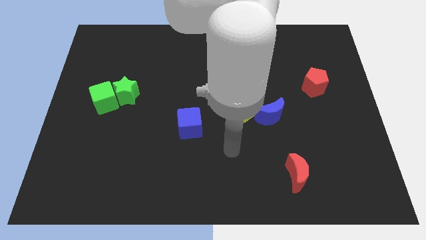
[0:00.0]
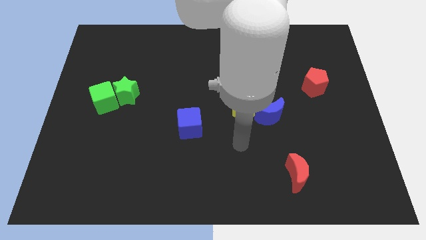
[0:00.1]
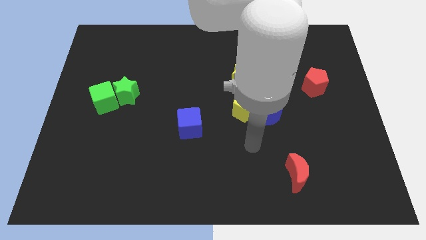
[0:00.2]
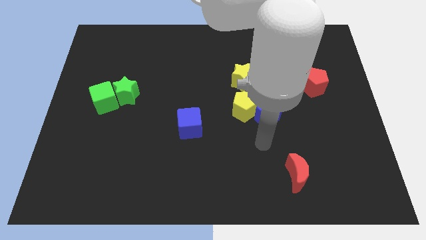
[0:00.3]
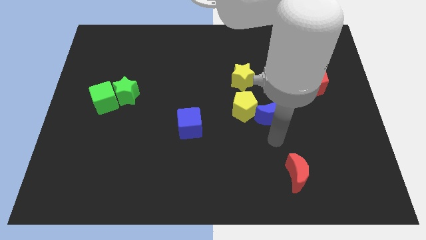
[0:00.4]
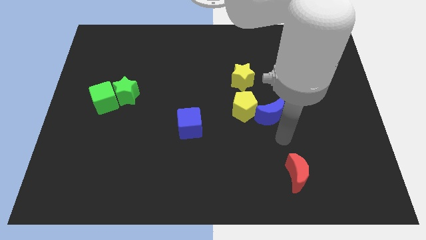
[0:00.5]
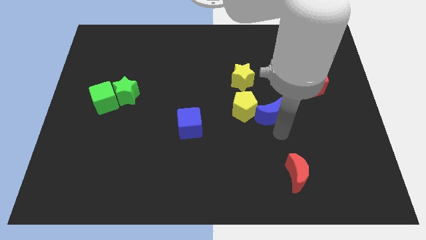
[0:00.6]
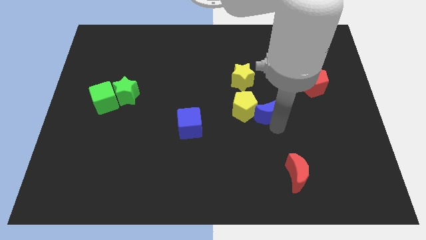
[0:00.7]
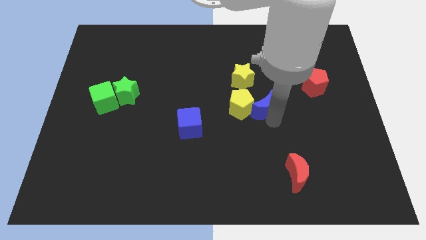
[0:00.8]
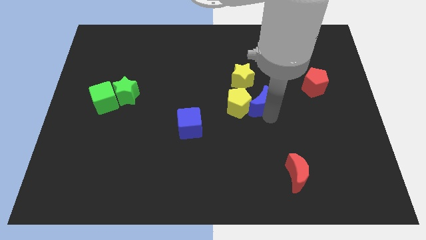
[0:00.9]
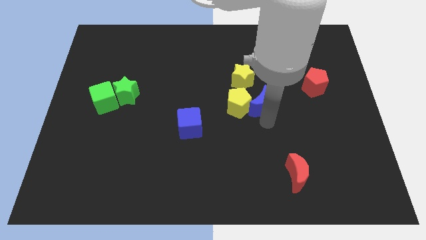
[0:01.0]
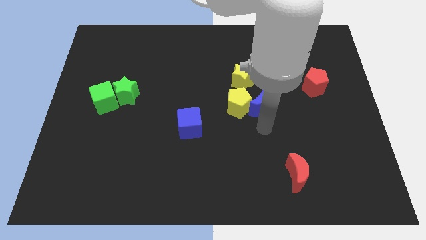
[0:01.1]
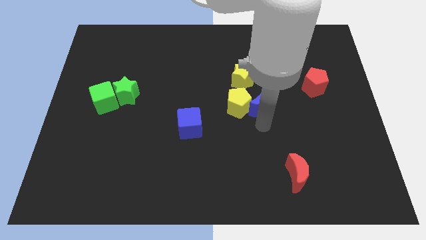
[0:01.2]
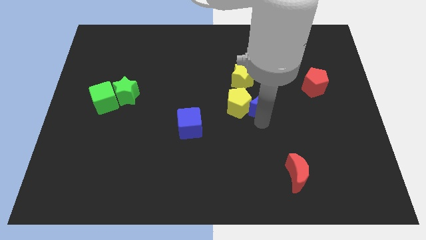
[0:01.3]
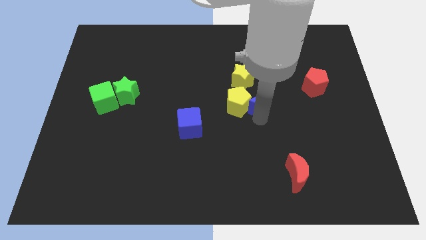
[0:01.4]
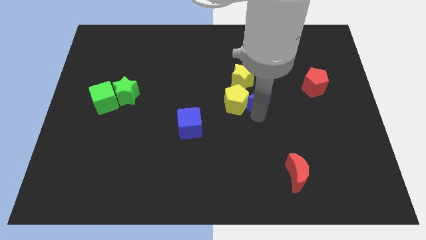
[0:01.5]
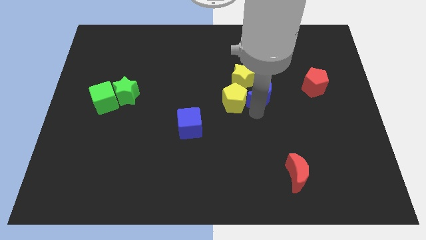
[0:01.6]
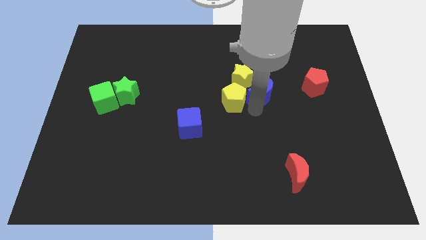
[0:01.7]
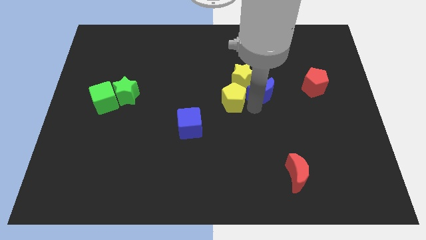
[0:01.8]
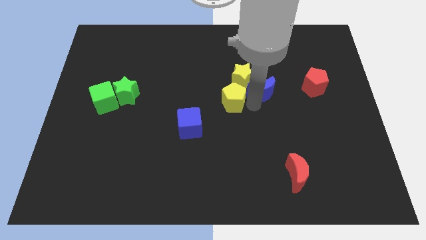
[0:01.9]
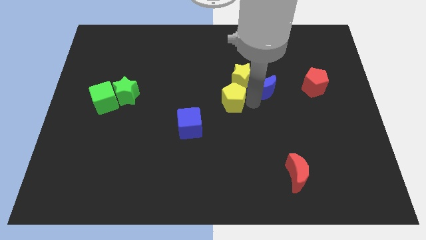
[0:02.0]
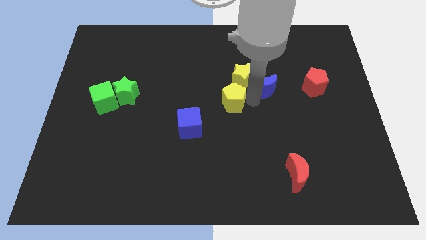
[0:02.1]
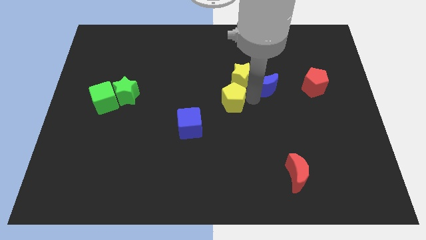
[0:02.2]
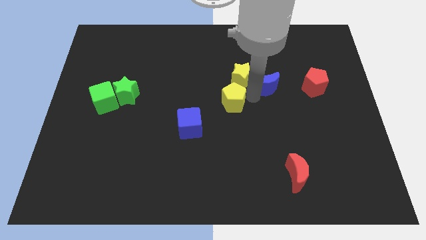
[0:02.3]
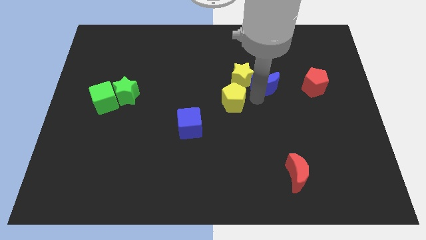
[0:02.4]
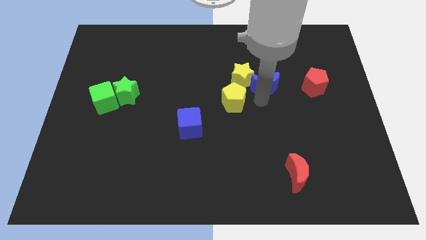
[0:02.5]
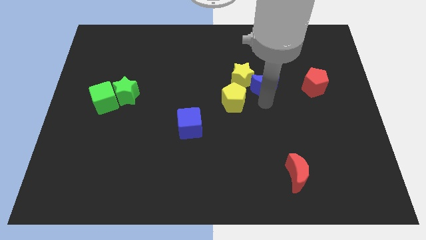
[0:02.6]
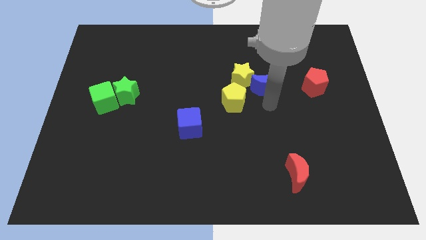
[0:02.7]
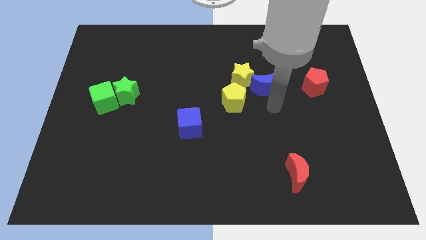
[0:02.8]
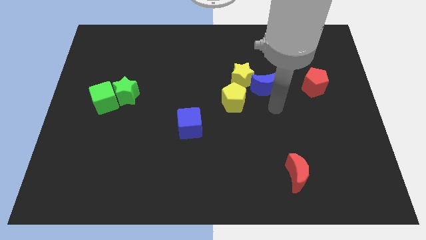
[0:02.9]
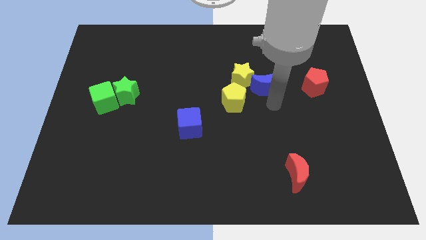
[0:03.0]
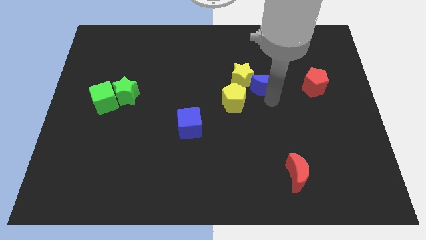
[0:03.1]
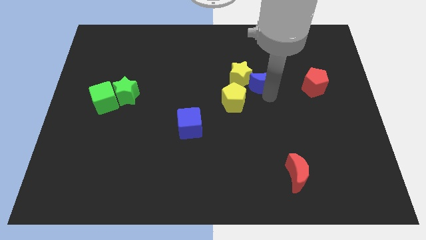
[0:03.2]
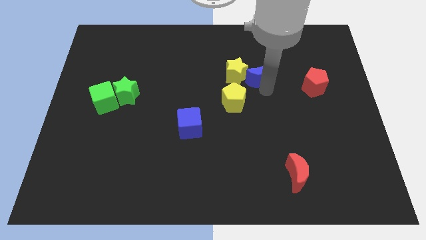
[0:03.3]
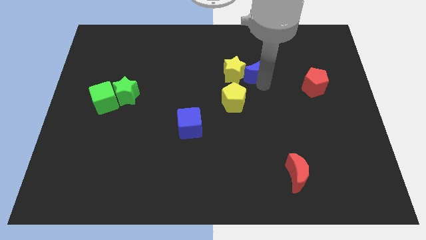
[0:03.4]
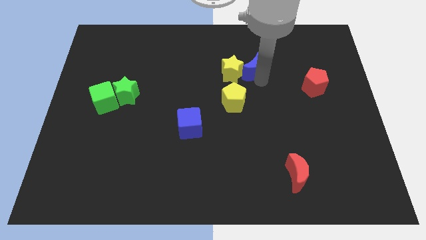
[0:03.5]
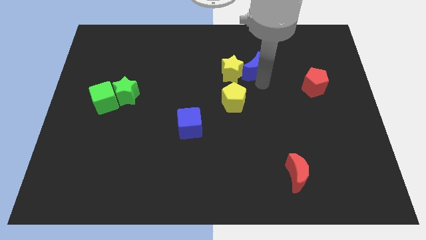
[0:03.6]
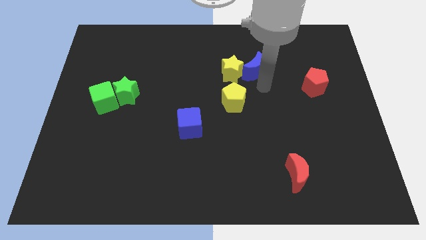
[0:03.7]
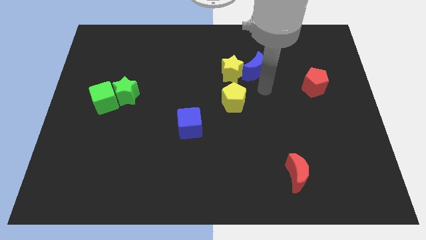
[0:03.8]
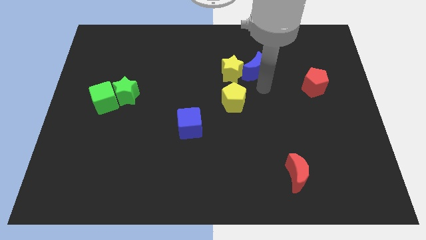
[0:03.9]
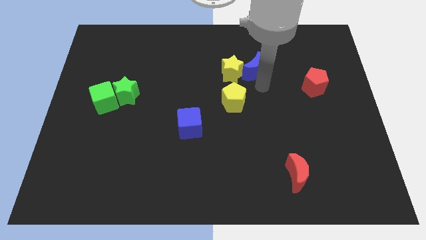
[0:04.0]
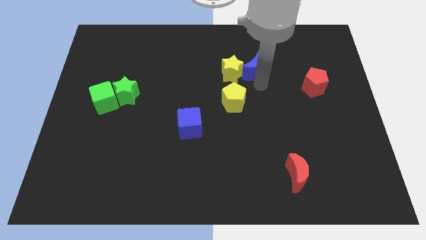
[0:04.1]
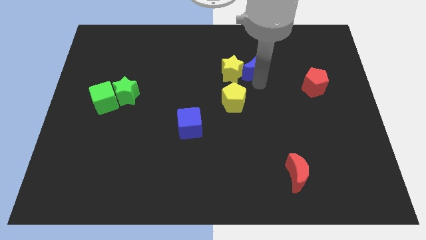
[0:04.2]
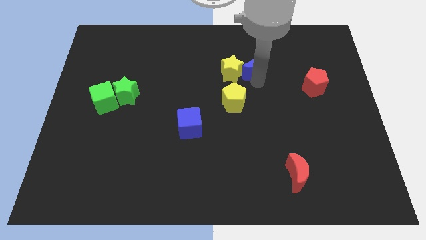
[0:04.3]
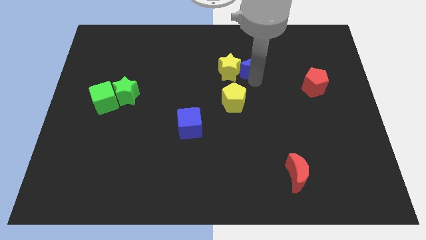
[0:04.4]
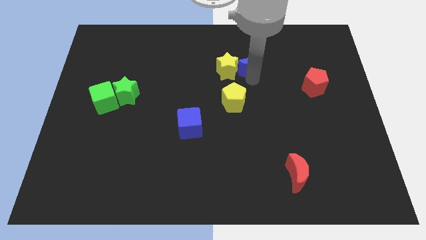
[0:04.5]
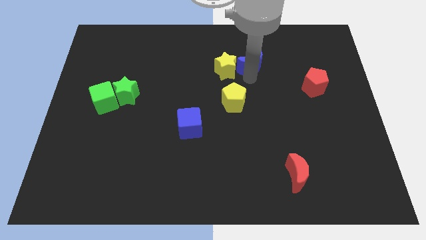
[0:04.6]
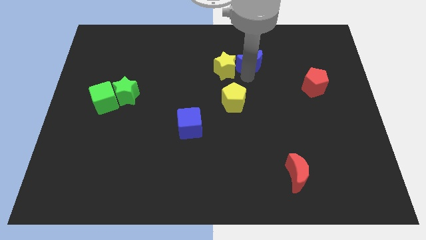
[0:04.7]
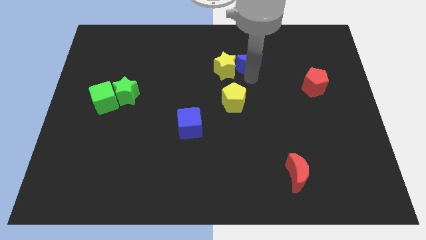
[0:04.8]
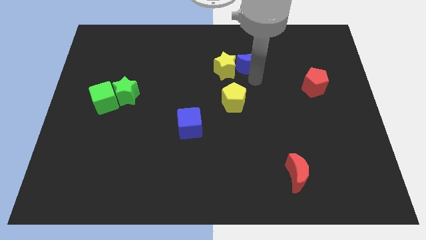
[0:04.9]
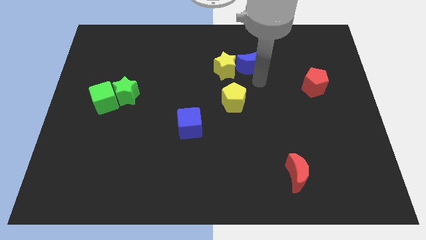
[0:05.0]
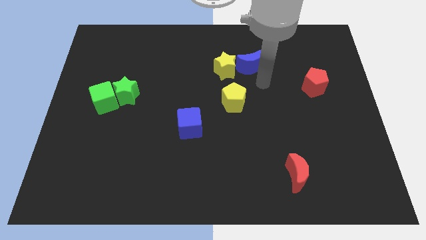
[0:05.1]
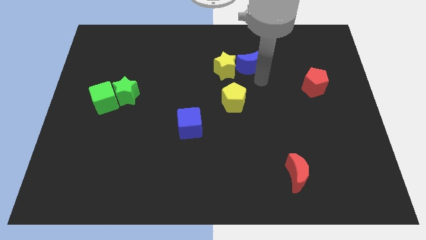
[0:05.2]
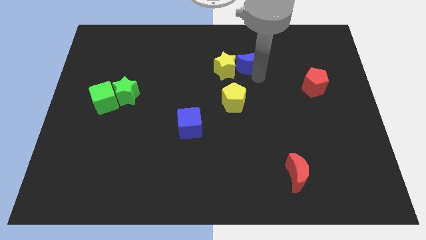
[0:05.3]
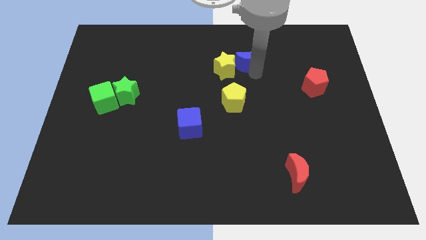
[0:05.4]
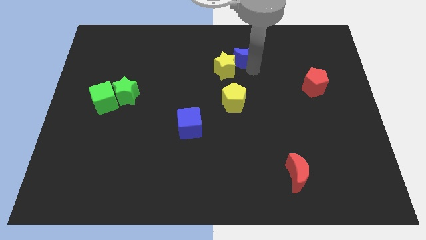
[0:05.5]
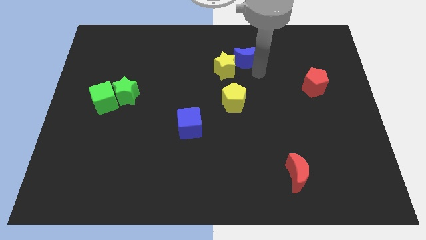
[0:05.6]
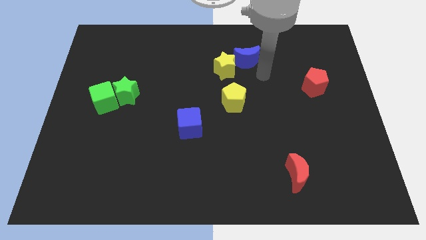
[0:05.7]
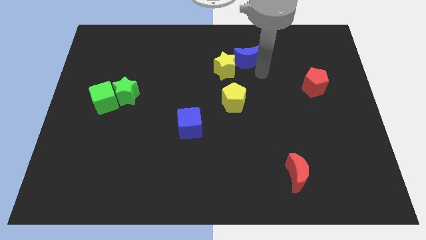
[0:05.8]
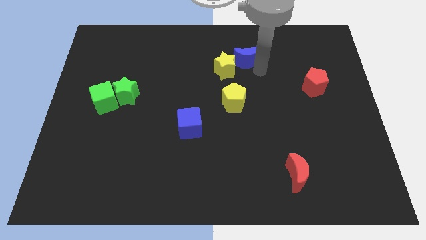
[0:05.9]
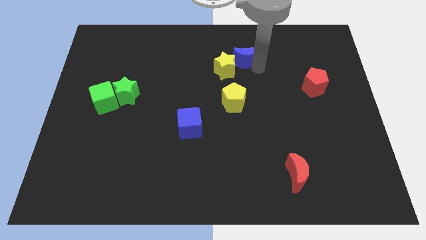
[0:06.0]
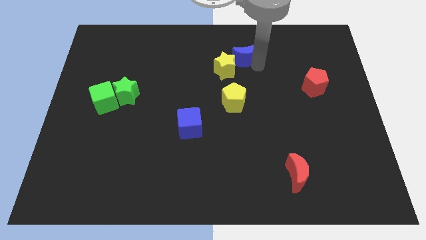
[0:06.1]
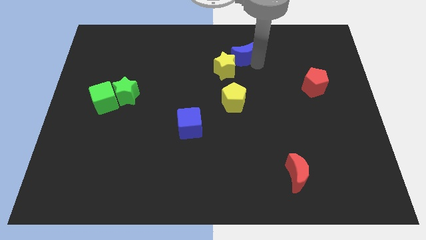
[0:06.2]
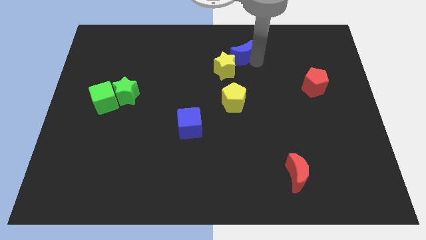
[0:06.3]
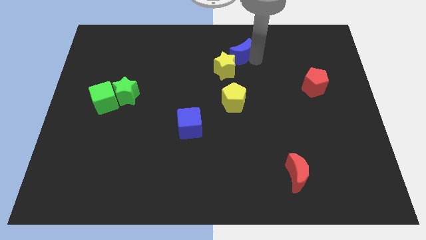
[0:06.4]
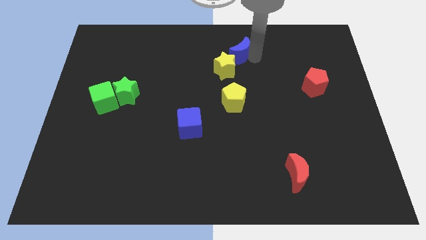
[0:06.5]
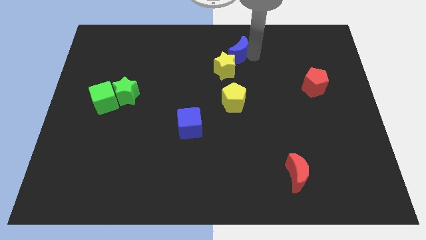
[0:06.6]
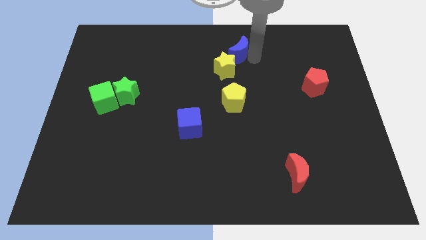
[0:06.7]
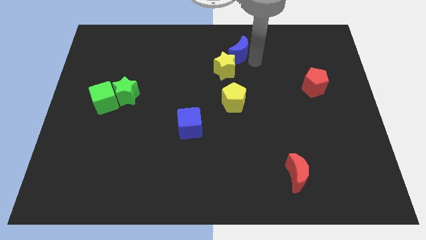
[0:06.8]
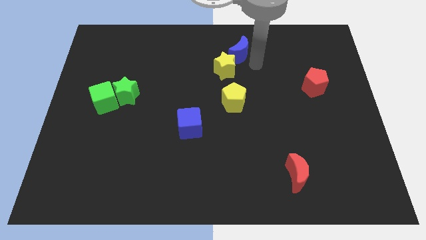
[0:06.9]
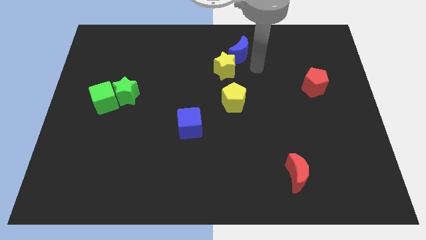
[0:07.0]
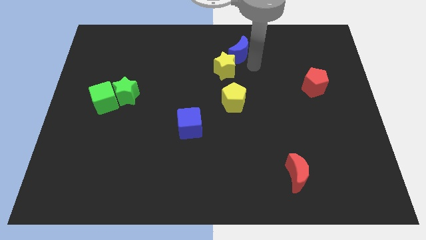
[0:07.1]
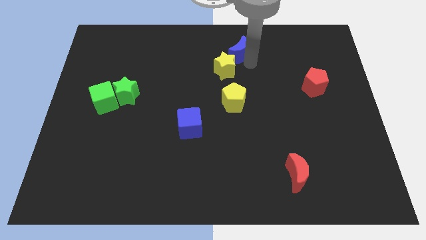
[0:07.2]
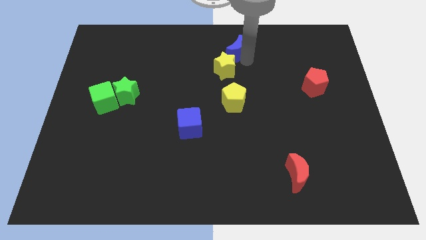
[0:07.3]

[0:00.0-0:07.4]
put the blue moon to the top side

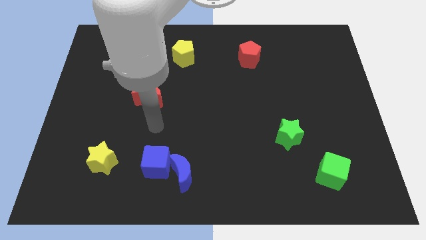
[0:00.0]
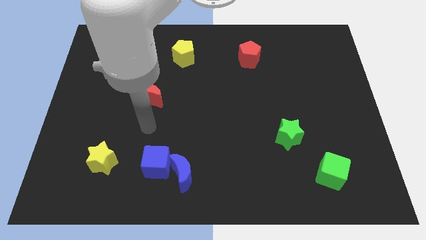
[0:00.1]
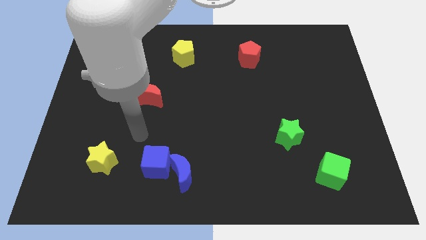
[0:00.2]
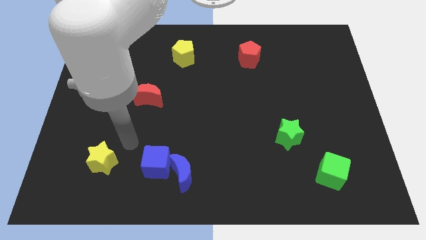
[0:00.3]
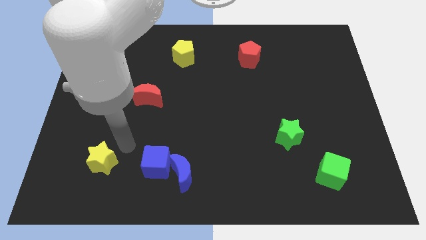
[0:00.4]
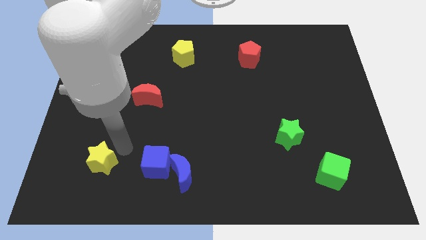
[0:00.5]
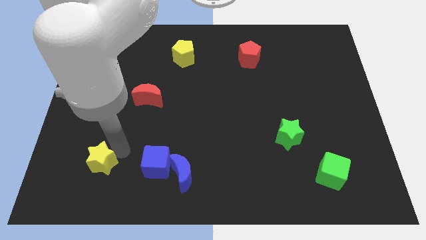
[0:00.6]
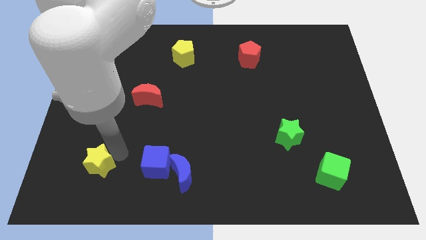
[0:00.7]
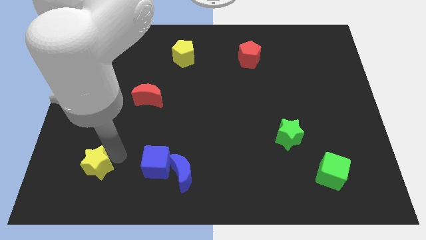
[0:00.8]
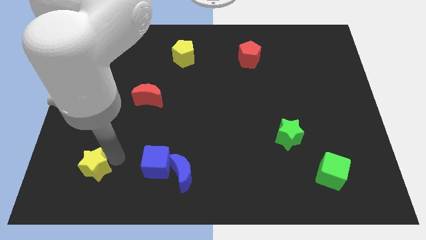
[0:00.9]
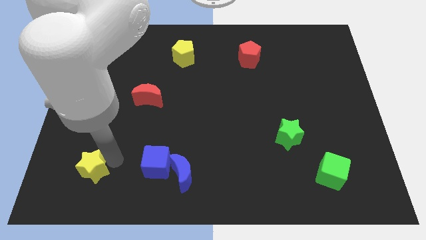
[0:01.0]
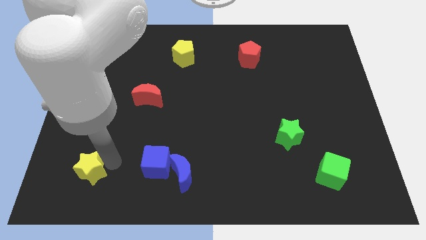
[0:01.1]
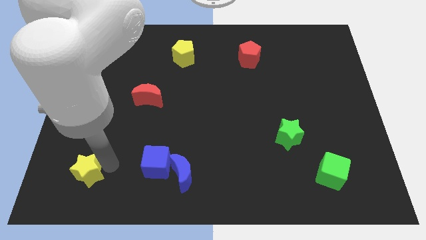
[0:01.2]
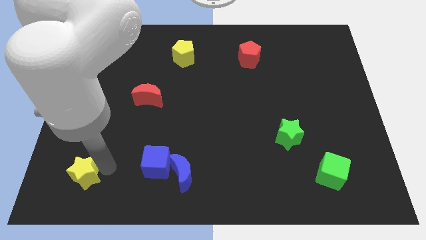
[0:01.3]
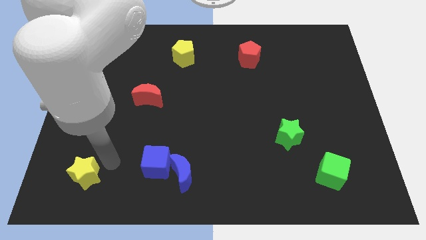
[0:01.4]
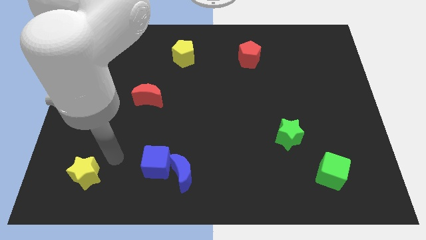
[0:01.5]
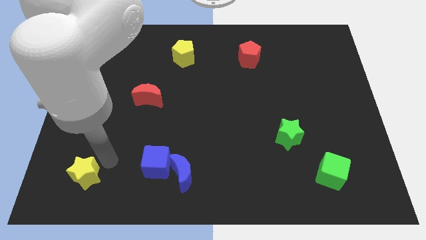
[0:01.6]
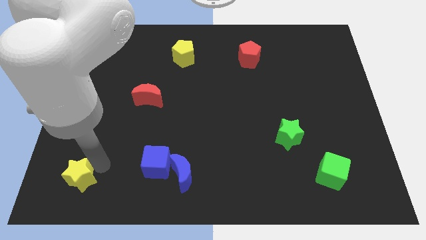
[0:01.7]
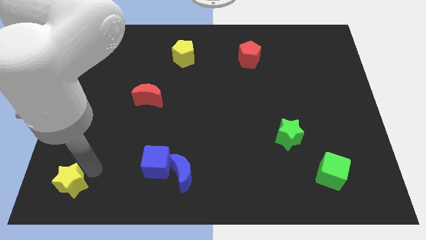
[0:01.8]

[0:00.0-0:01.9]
slide the yellow star to the bottom left corner
